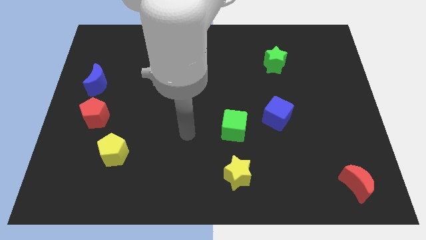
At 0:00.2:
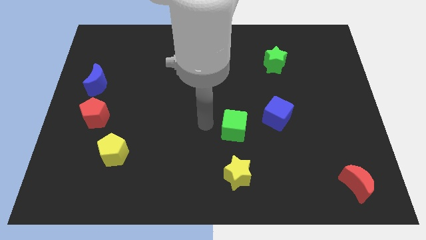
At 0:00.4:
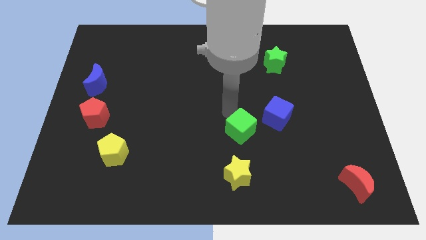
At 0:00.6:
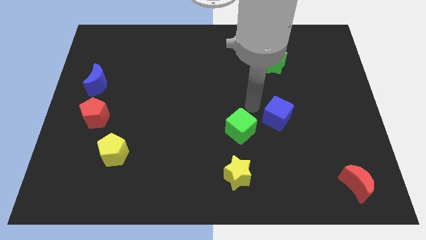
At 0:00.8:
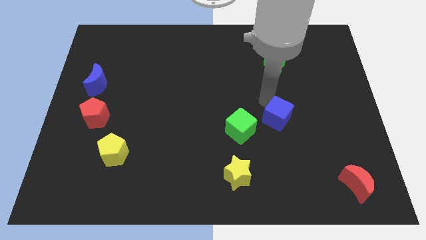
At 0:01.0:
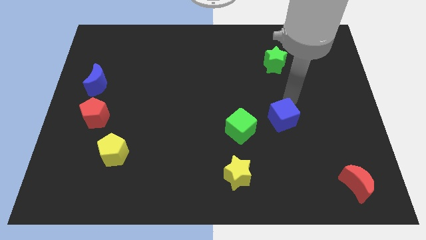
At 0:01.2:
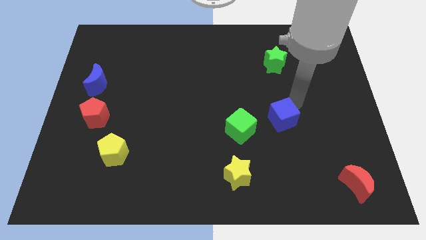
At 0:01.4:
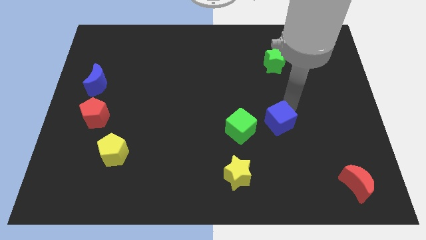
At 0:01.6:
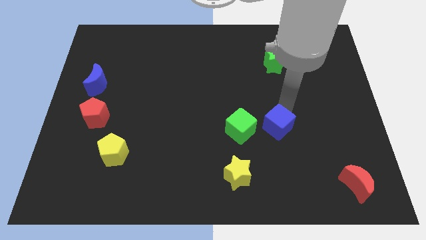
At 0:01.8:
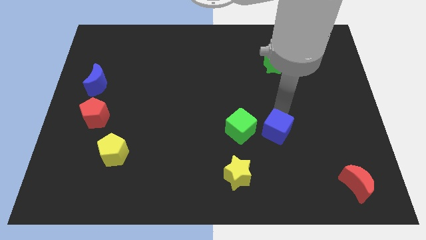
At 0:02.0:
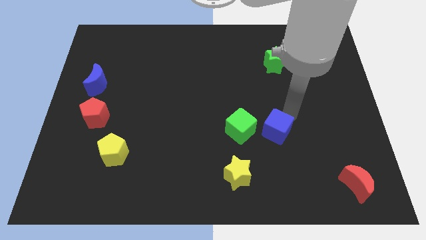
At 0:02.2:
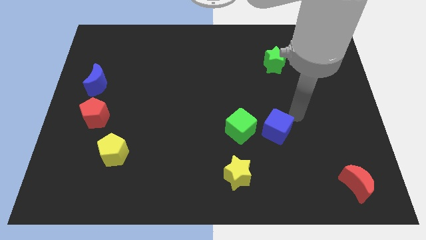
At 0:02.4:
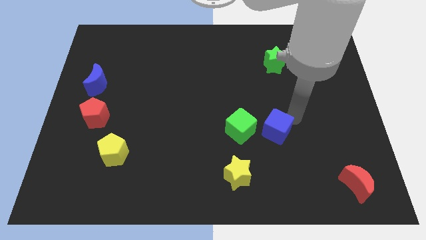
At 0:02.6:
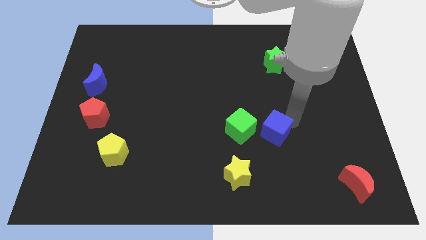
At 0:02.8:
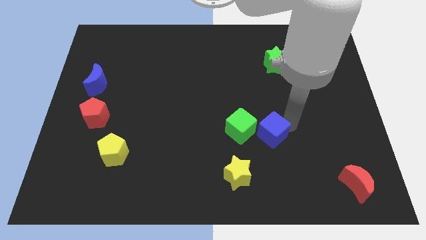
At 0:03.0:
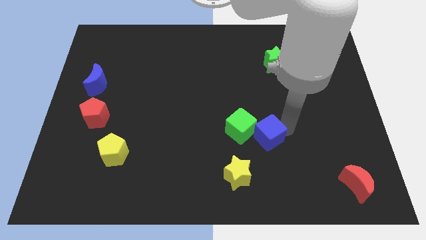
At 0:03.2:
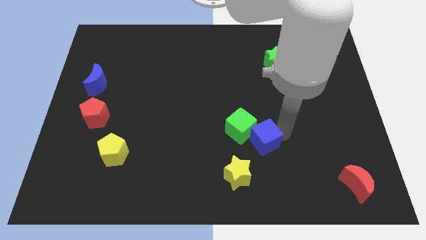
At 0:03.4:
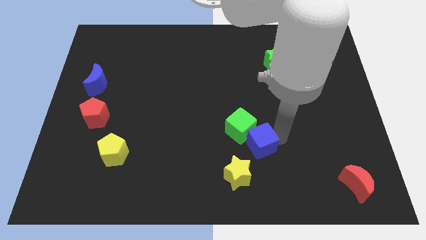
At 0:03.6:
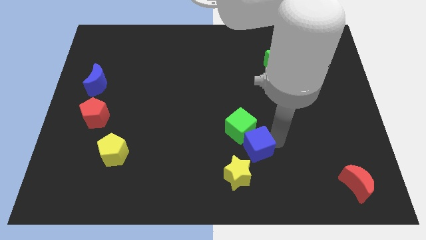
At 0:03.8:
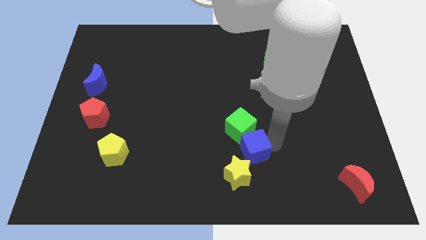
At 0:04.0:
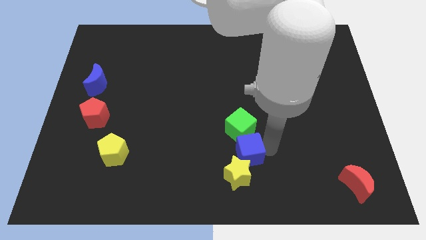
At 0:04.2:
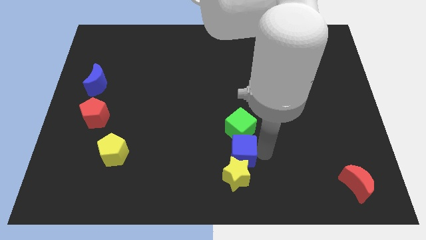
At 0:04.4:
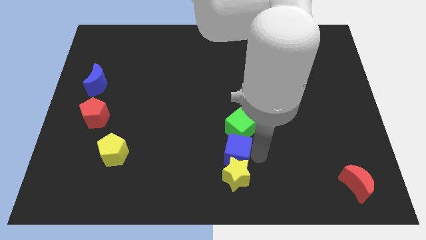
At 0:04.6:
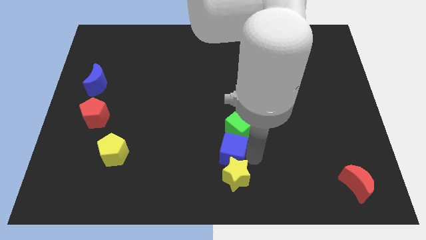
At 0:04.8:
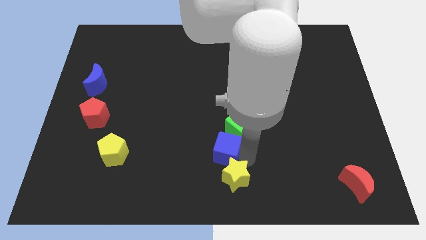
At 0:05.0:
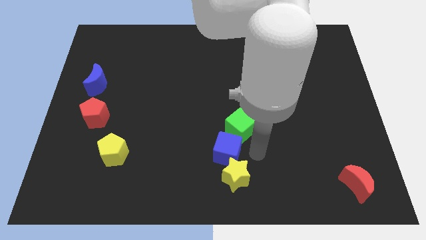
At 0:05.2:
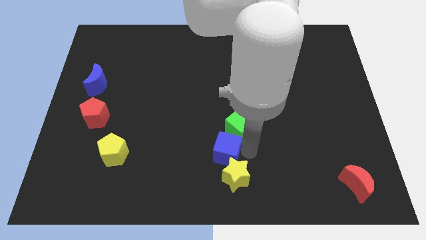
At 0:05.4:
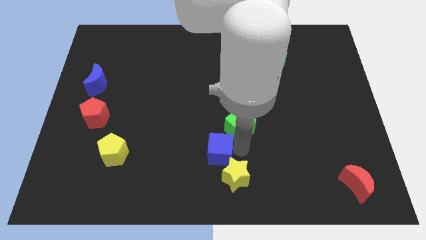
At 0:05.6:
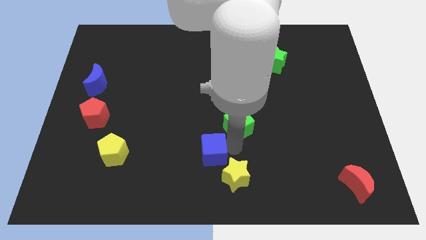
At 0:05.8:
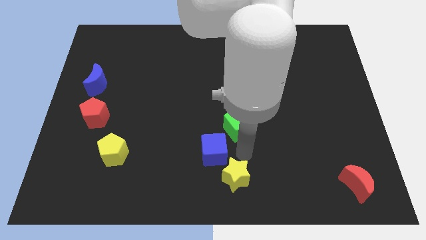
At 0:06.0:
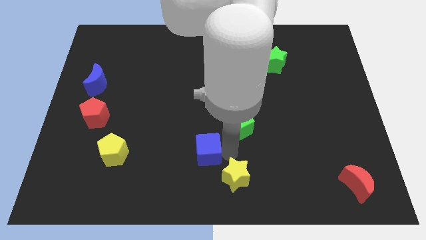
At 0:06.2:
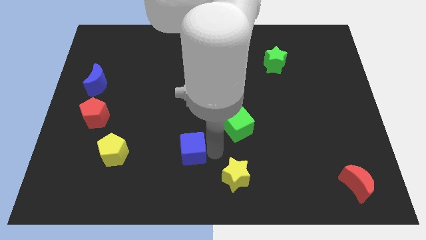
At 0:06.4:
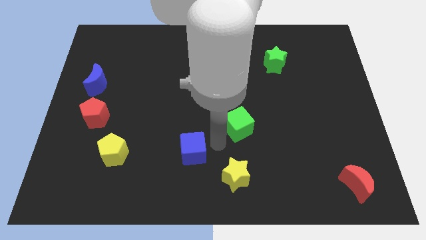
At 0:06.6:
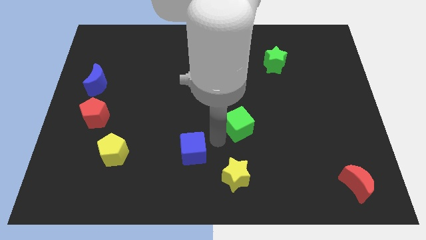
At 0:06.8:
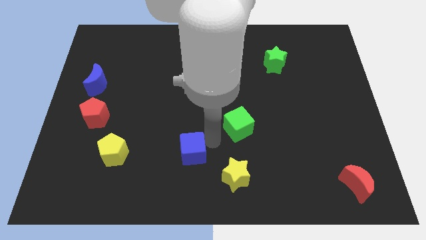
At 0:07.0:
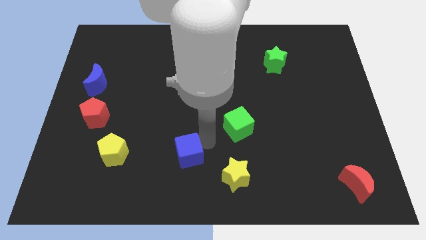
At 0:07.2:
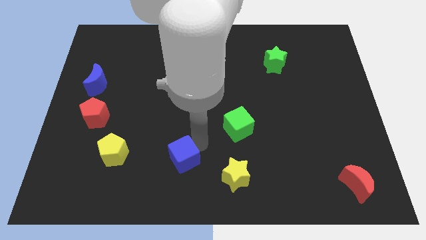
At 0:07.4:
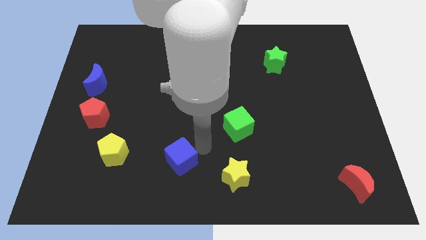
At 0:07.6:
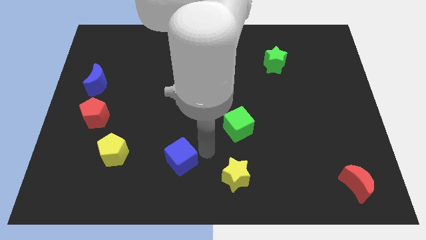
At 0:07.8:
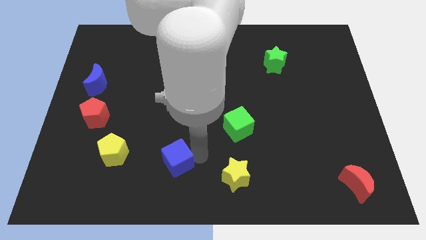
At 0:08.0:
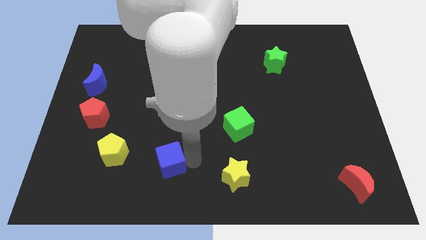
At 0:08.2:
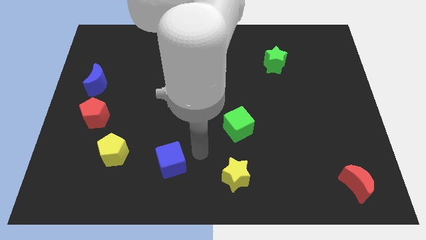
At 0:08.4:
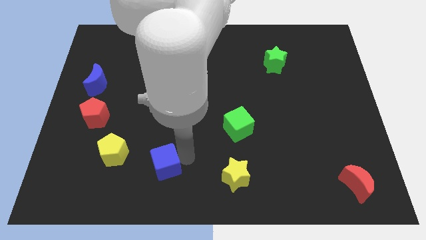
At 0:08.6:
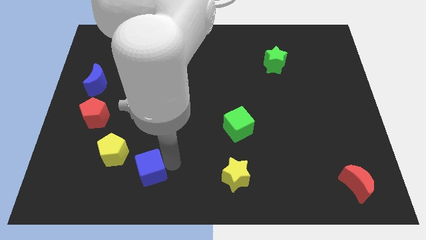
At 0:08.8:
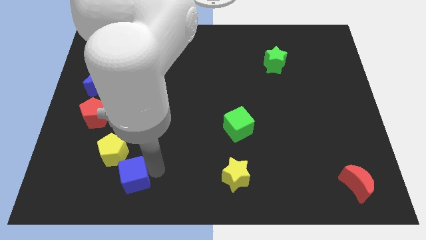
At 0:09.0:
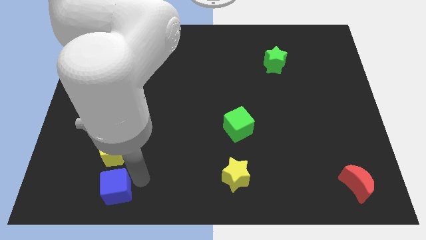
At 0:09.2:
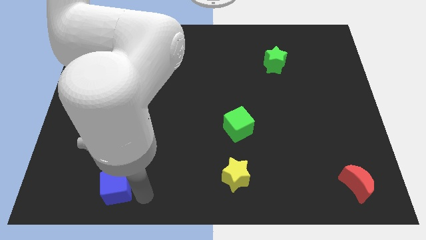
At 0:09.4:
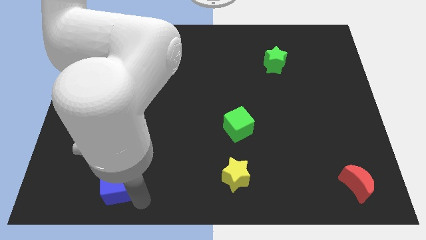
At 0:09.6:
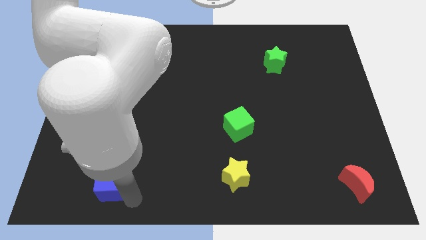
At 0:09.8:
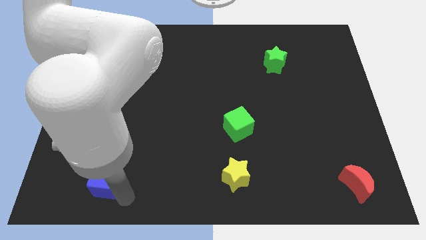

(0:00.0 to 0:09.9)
push the blue cube to the bottom left side of the yellow pentagon

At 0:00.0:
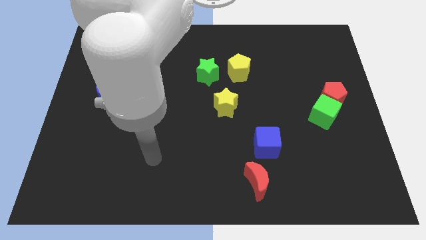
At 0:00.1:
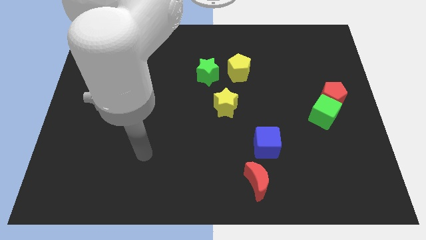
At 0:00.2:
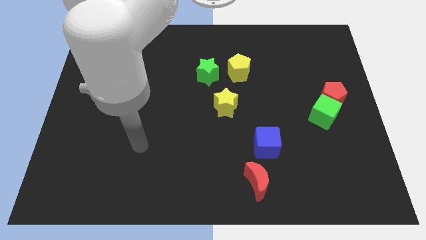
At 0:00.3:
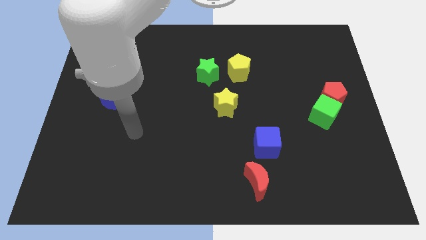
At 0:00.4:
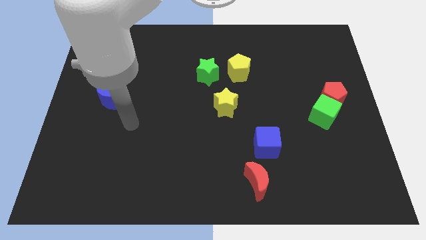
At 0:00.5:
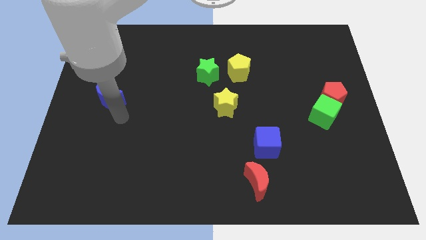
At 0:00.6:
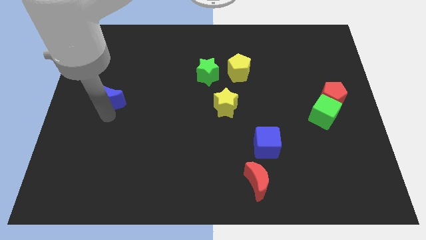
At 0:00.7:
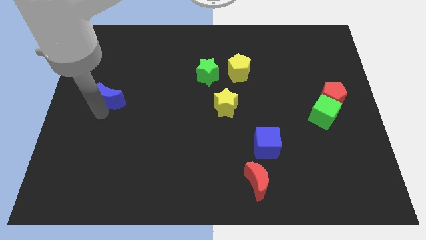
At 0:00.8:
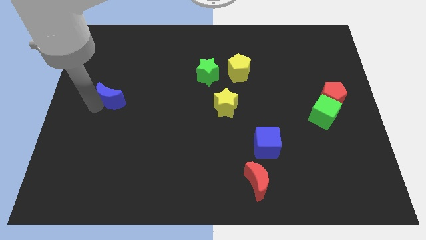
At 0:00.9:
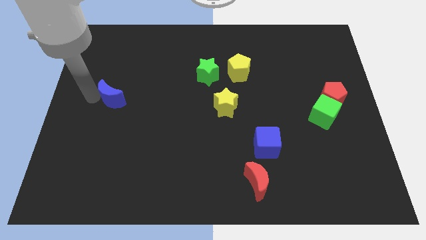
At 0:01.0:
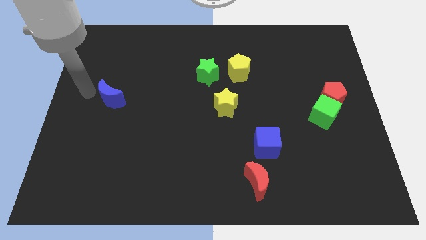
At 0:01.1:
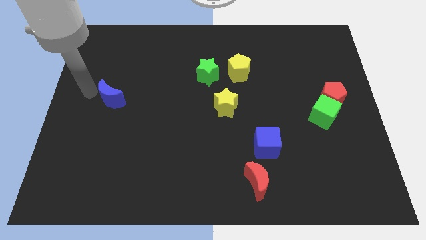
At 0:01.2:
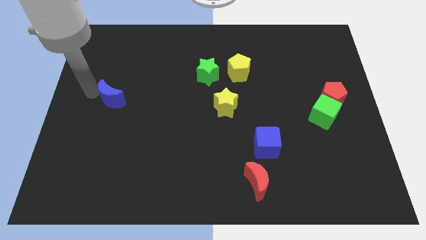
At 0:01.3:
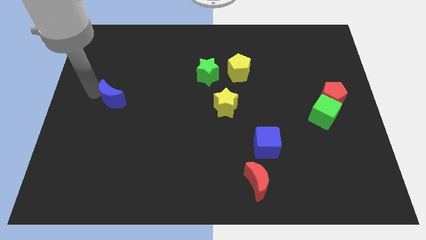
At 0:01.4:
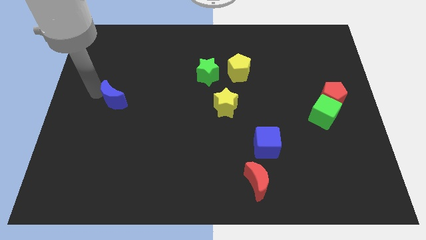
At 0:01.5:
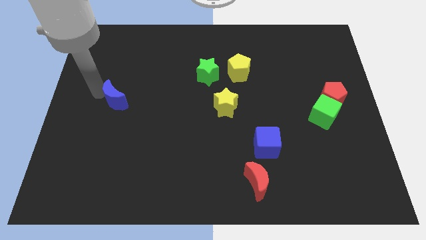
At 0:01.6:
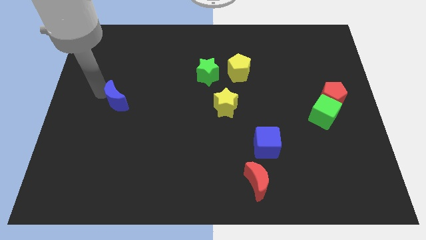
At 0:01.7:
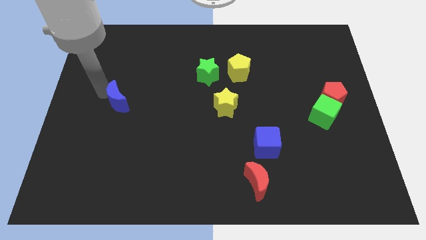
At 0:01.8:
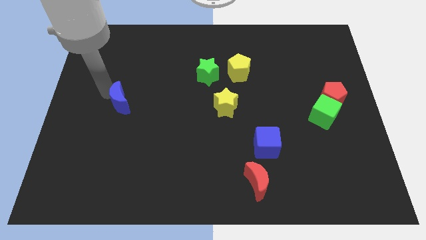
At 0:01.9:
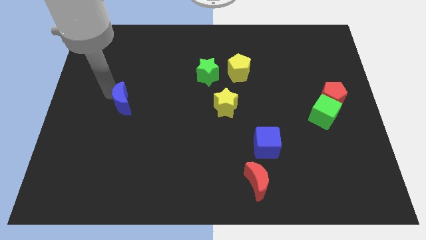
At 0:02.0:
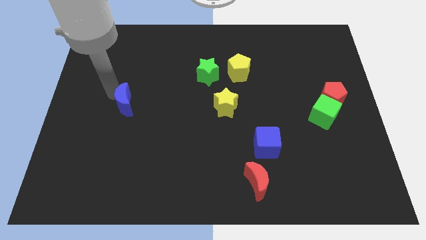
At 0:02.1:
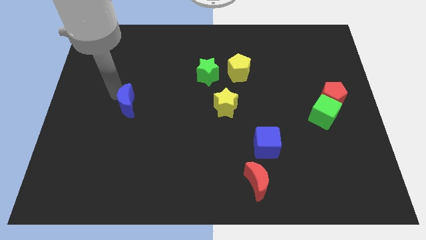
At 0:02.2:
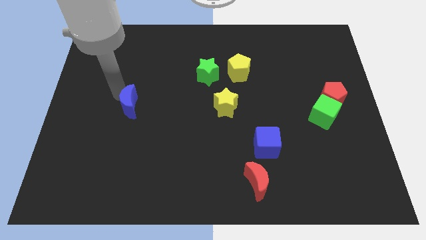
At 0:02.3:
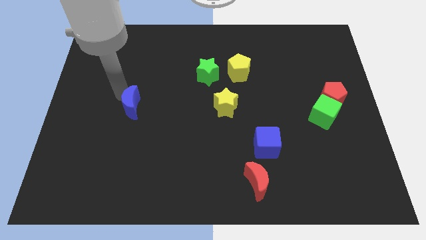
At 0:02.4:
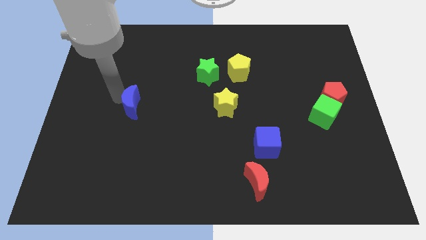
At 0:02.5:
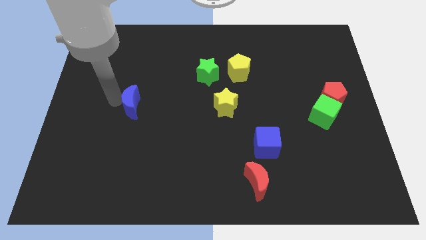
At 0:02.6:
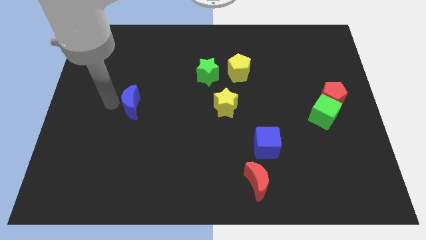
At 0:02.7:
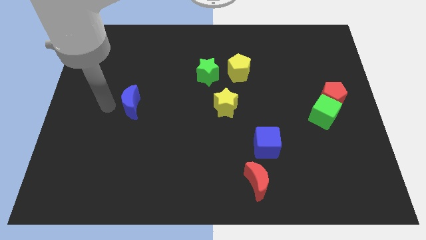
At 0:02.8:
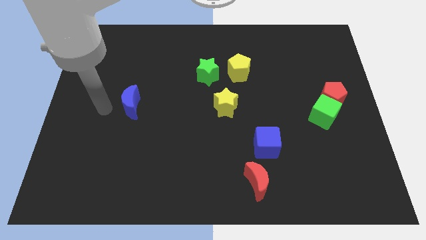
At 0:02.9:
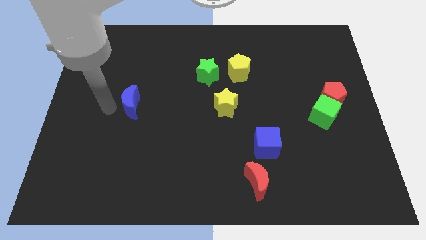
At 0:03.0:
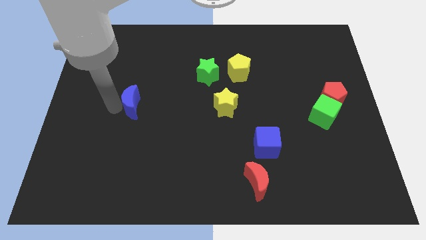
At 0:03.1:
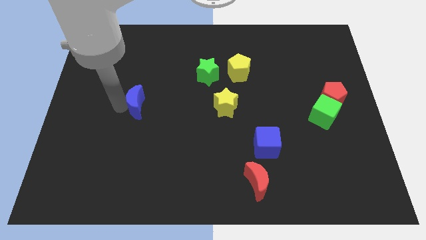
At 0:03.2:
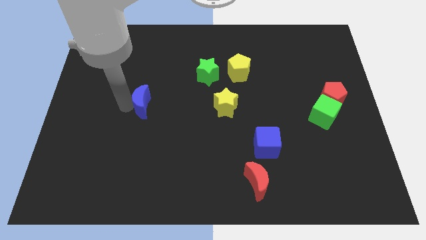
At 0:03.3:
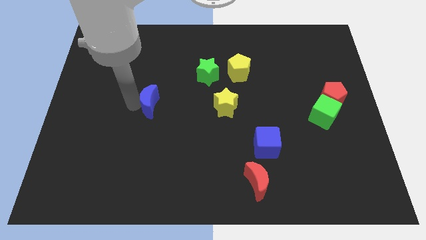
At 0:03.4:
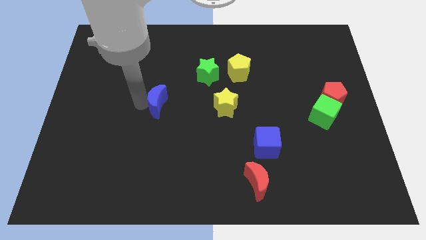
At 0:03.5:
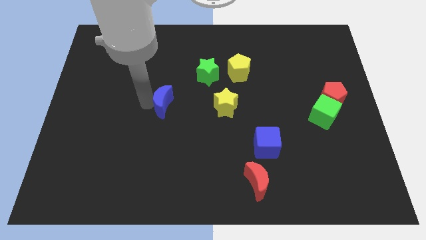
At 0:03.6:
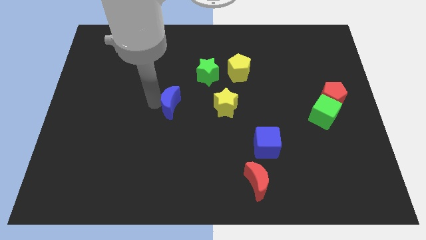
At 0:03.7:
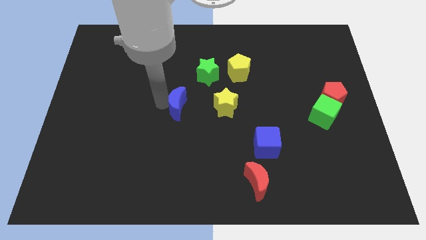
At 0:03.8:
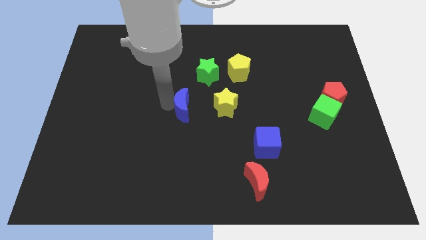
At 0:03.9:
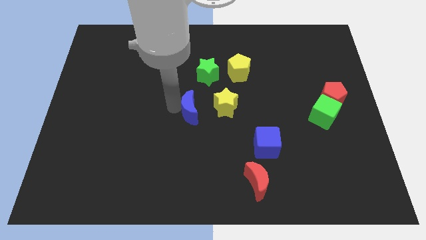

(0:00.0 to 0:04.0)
push the blue moon to the bottom of the green star
